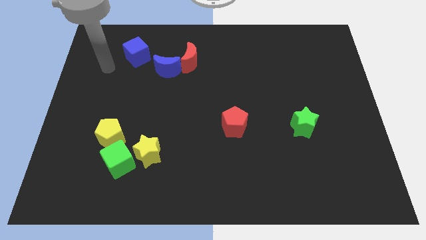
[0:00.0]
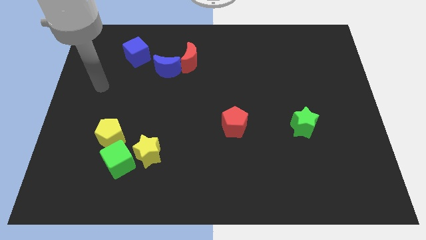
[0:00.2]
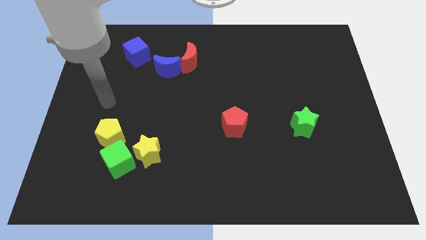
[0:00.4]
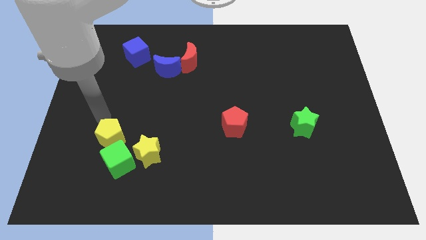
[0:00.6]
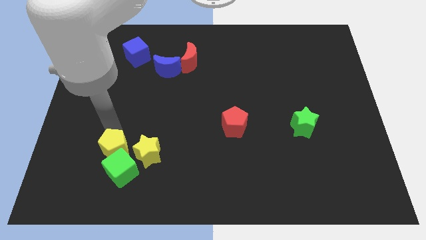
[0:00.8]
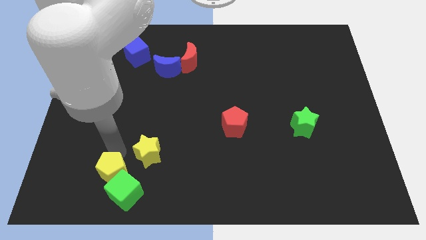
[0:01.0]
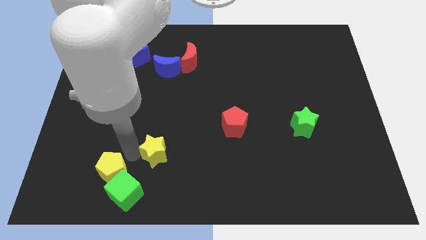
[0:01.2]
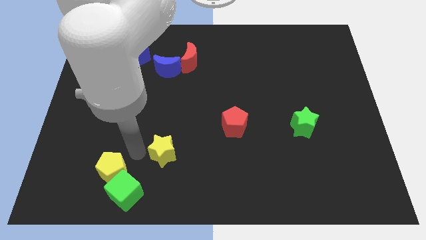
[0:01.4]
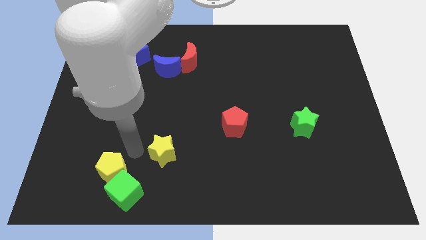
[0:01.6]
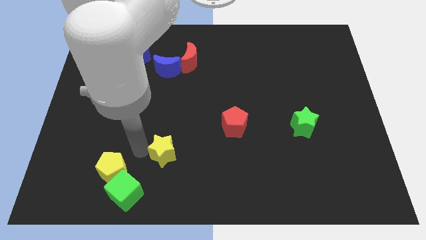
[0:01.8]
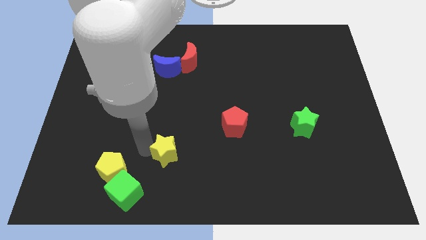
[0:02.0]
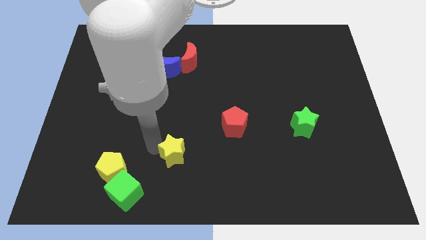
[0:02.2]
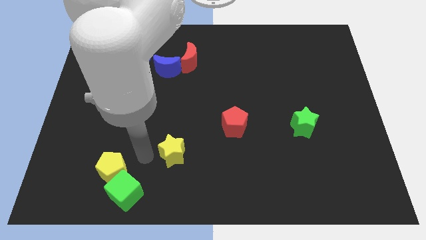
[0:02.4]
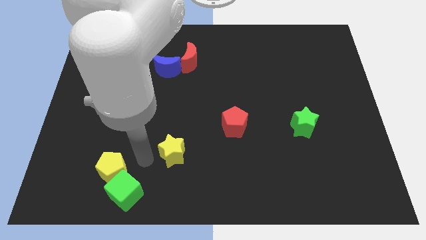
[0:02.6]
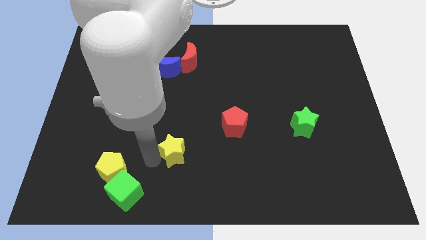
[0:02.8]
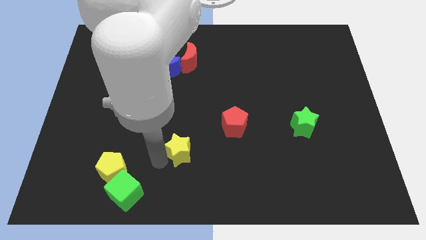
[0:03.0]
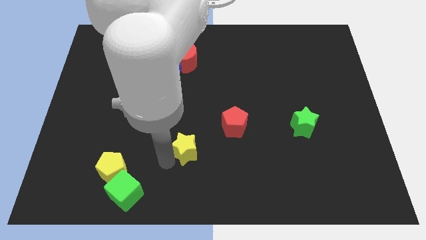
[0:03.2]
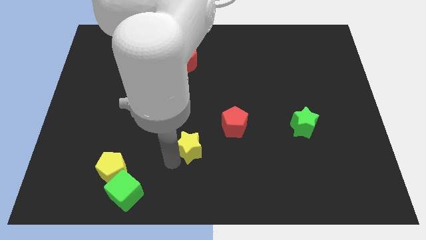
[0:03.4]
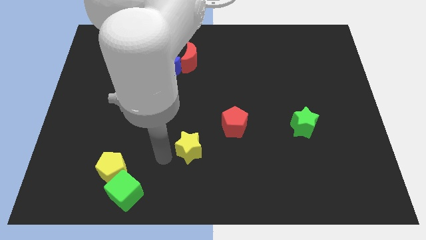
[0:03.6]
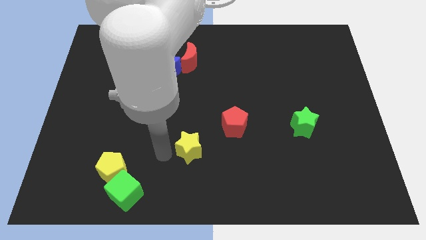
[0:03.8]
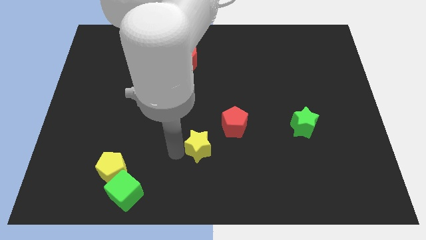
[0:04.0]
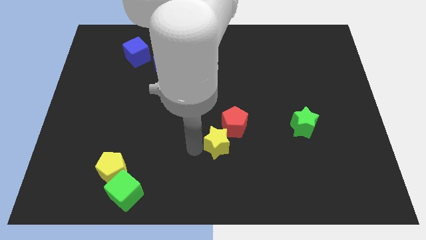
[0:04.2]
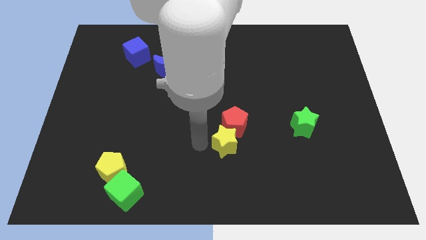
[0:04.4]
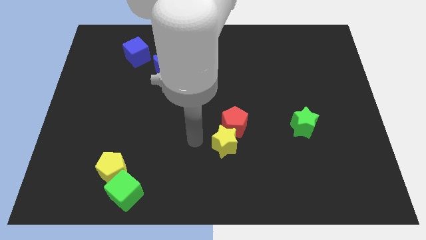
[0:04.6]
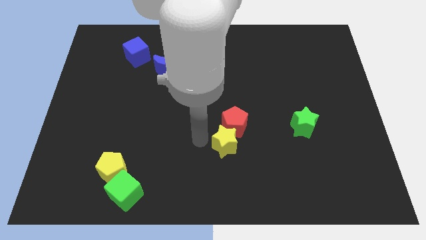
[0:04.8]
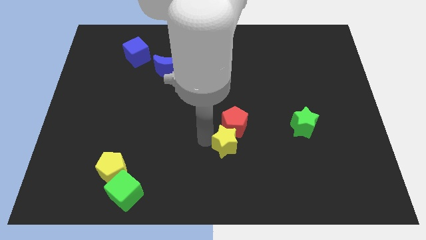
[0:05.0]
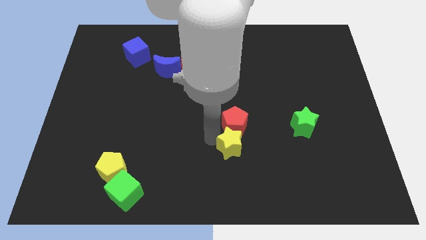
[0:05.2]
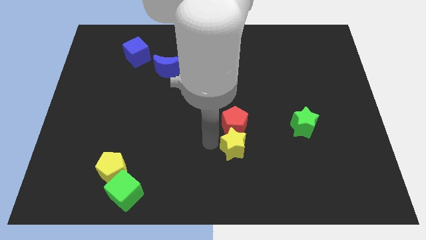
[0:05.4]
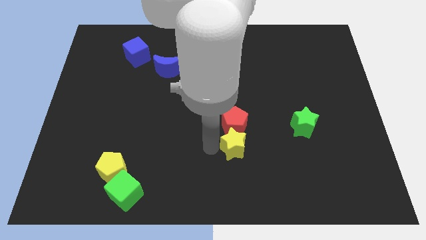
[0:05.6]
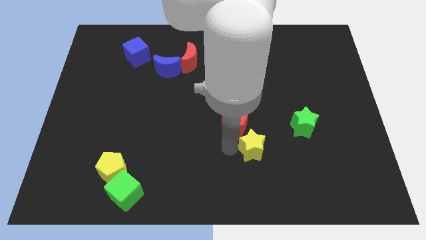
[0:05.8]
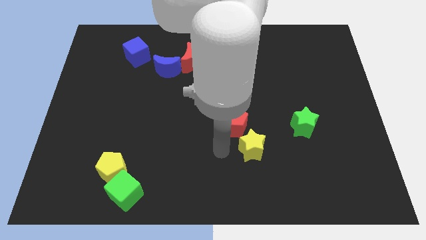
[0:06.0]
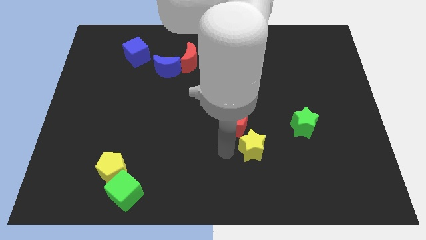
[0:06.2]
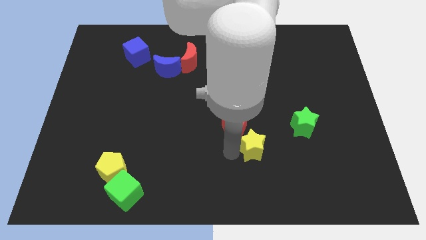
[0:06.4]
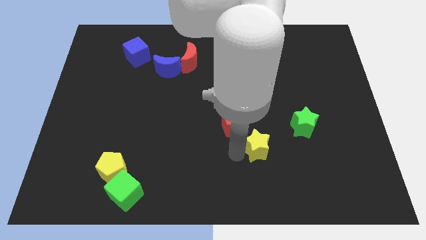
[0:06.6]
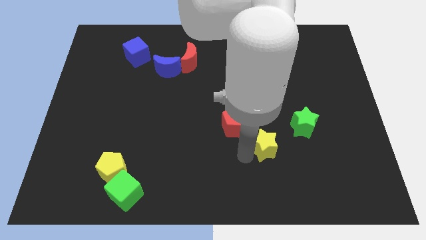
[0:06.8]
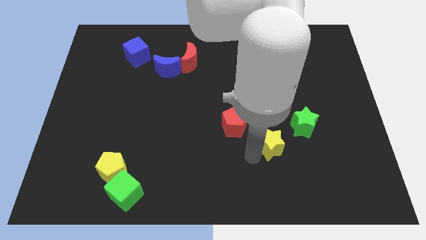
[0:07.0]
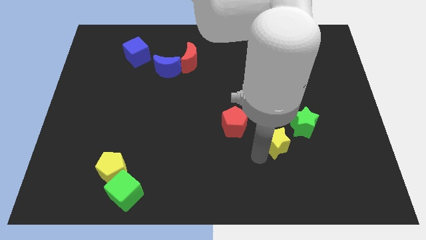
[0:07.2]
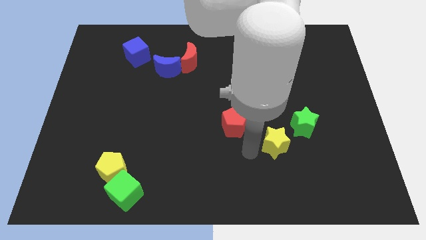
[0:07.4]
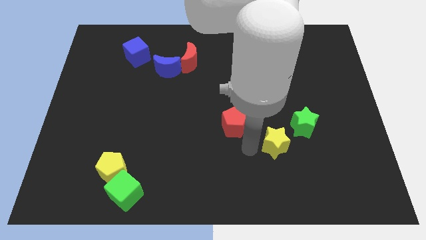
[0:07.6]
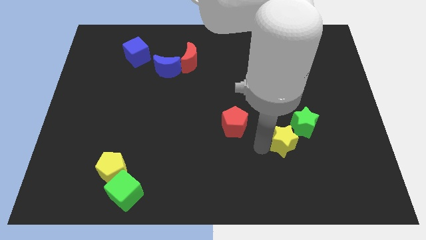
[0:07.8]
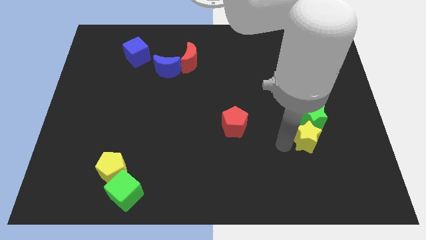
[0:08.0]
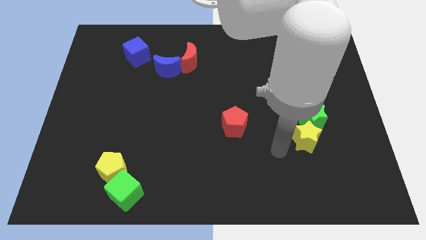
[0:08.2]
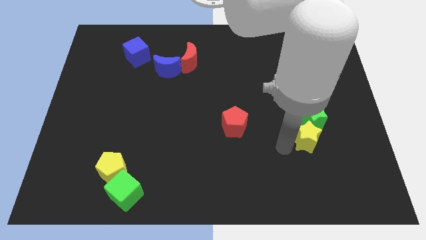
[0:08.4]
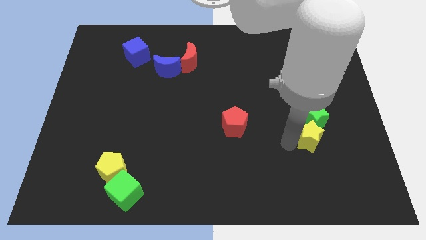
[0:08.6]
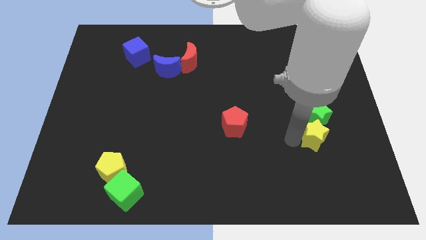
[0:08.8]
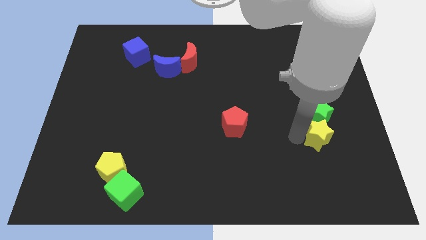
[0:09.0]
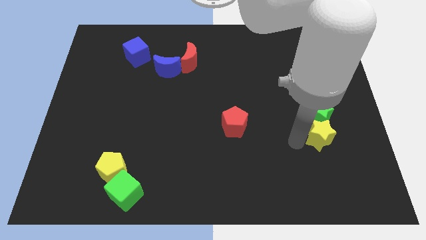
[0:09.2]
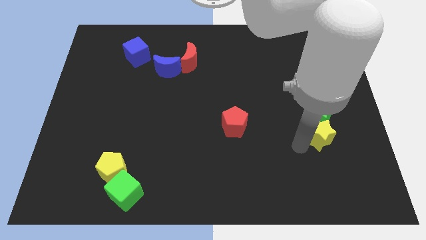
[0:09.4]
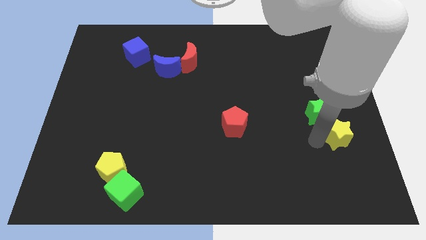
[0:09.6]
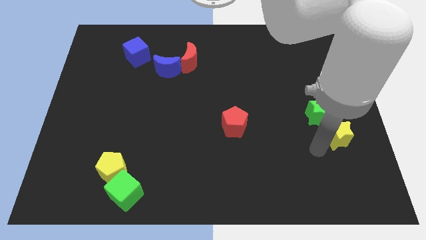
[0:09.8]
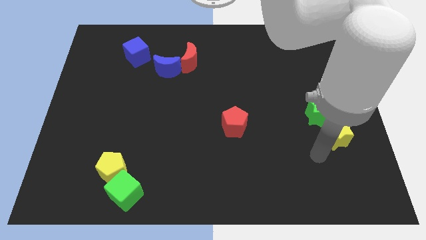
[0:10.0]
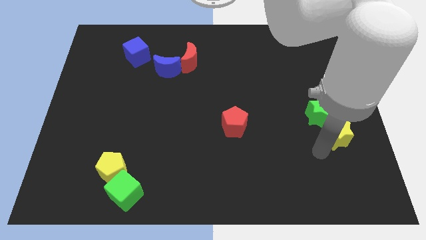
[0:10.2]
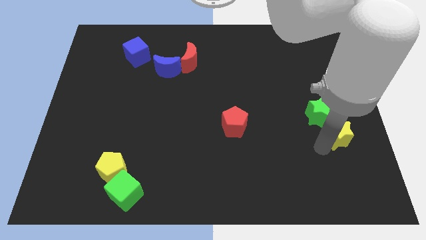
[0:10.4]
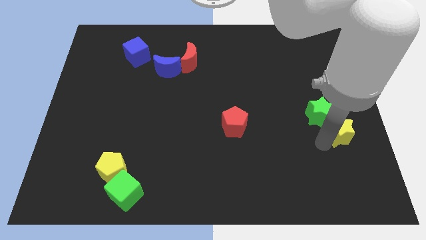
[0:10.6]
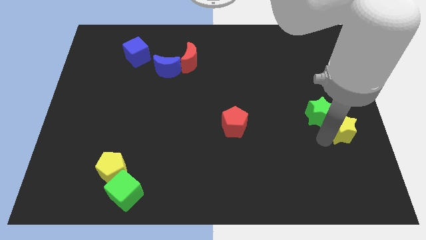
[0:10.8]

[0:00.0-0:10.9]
move the yellow star to the right side
